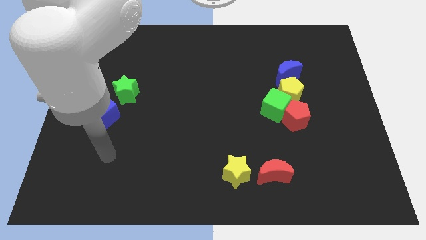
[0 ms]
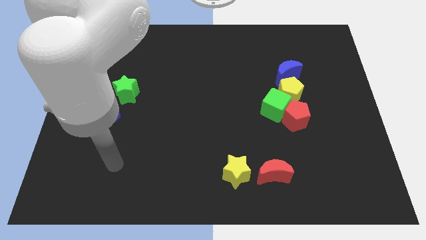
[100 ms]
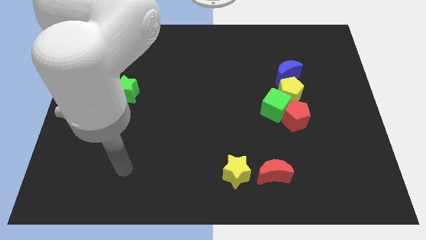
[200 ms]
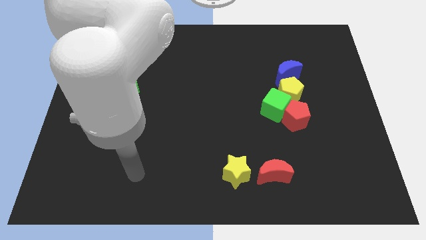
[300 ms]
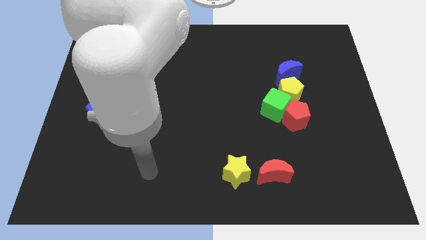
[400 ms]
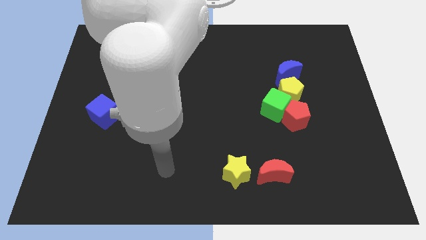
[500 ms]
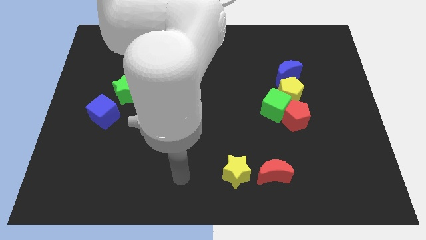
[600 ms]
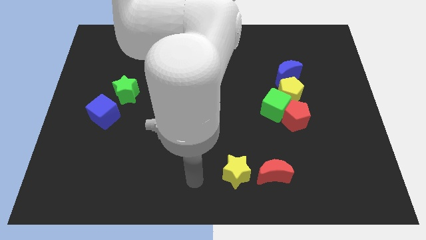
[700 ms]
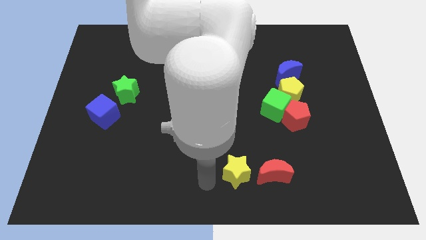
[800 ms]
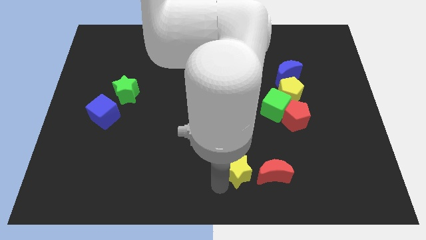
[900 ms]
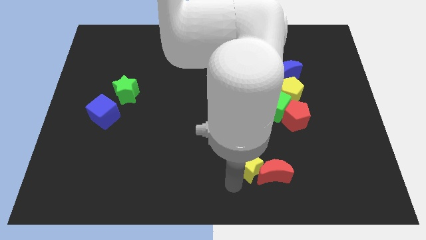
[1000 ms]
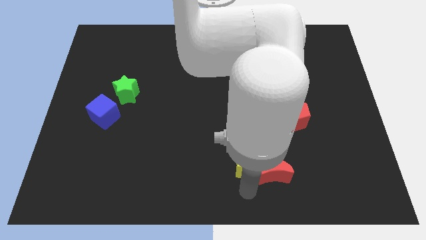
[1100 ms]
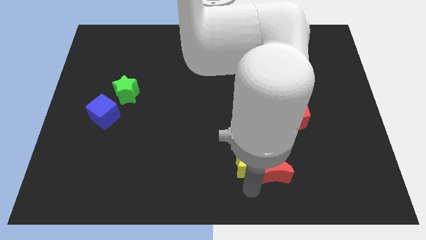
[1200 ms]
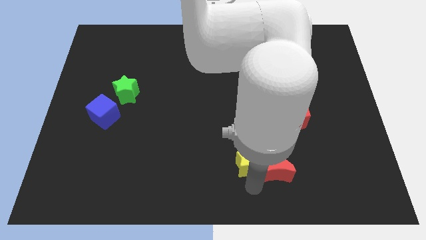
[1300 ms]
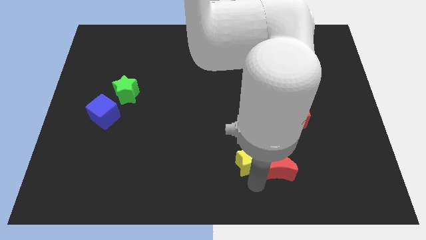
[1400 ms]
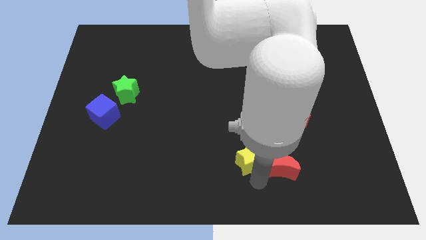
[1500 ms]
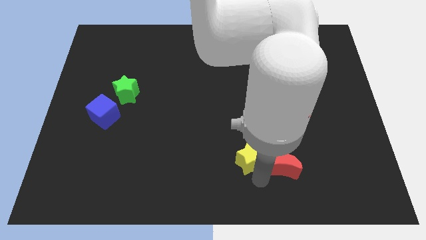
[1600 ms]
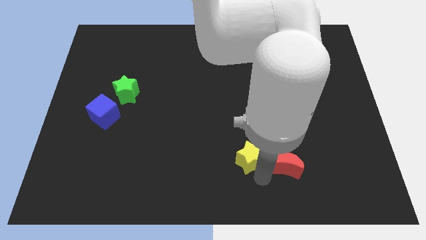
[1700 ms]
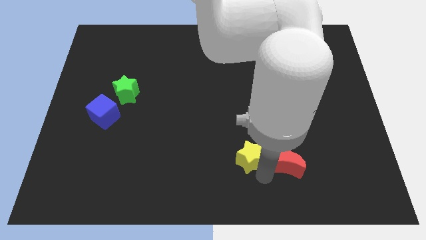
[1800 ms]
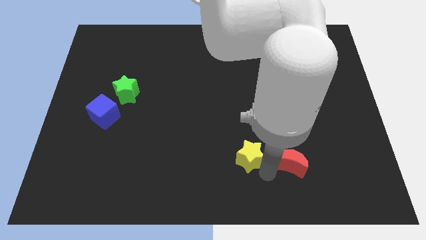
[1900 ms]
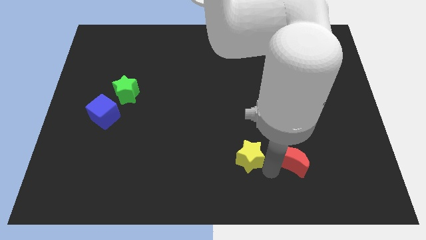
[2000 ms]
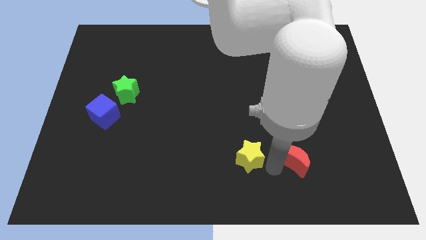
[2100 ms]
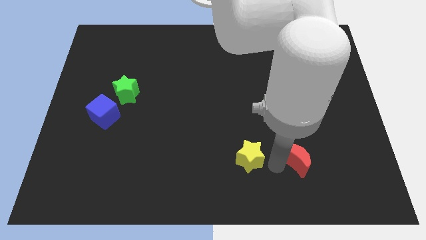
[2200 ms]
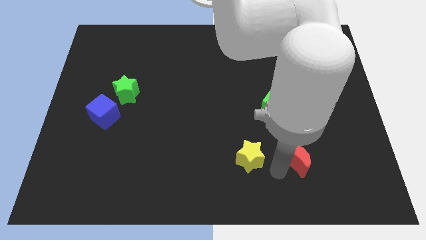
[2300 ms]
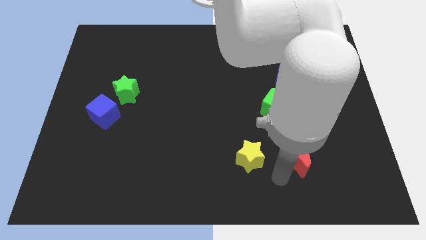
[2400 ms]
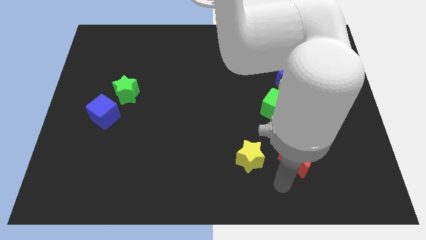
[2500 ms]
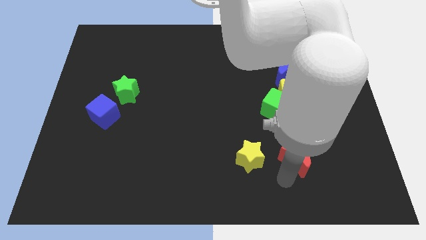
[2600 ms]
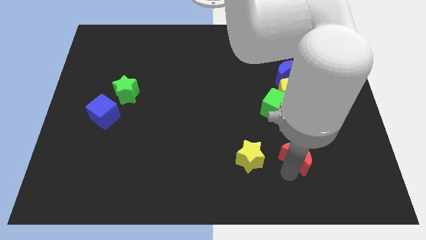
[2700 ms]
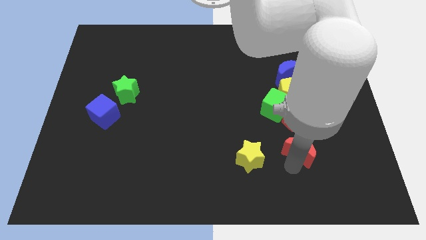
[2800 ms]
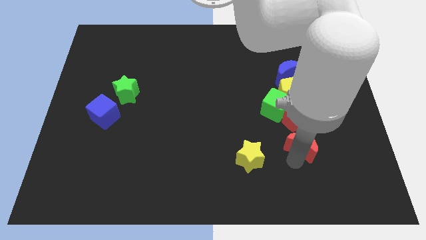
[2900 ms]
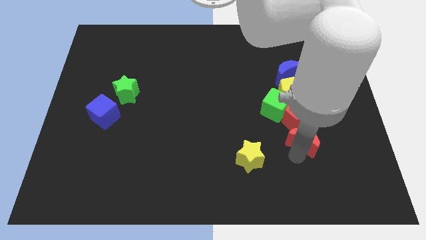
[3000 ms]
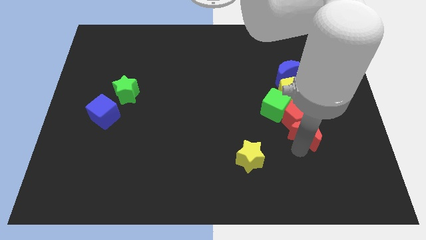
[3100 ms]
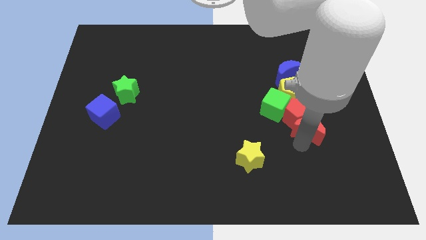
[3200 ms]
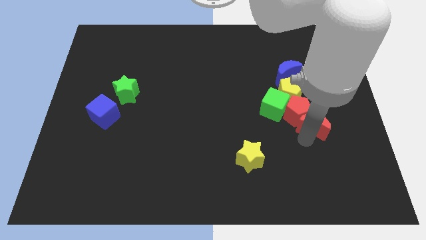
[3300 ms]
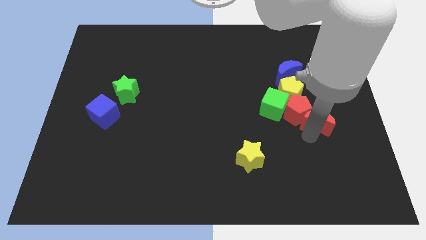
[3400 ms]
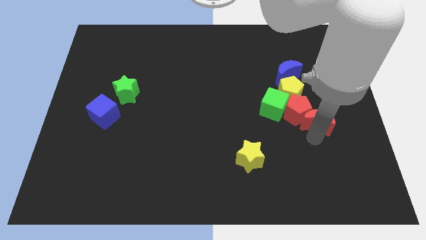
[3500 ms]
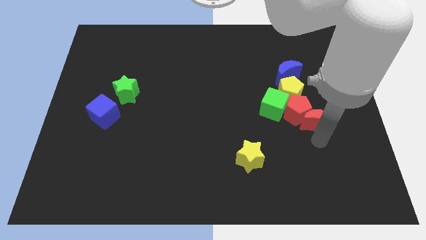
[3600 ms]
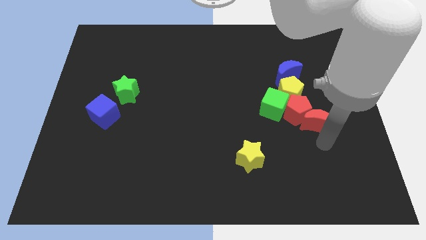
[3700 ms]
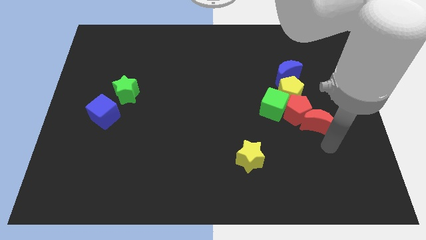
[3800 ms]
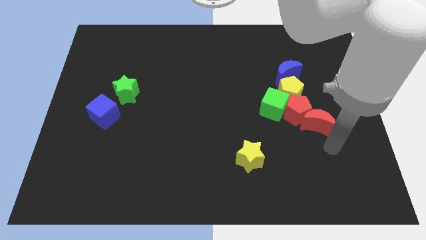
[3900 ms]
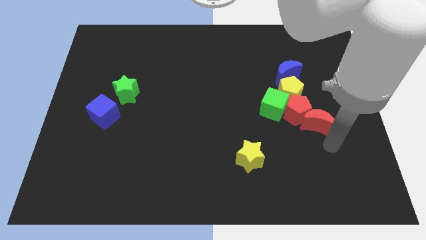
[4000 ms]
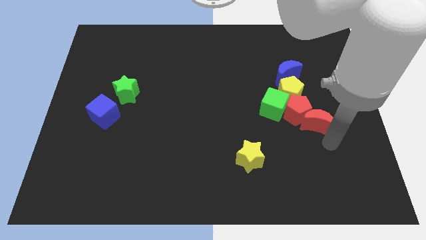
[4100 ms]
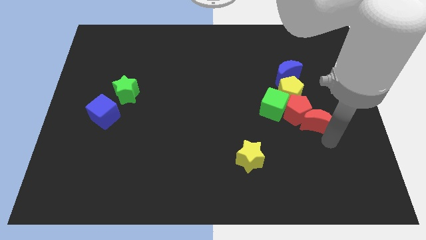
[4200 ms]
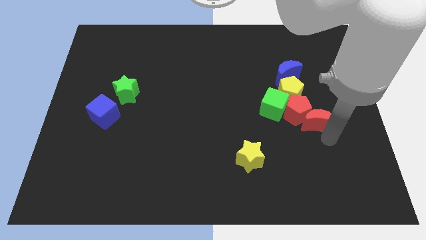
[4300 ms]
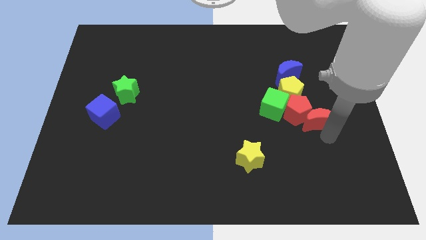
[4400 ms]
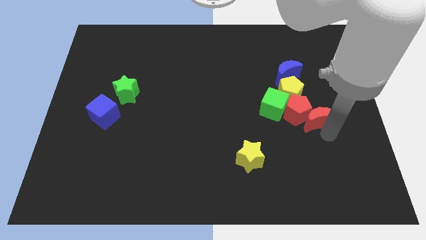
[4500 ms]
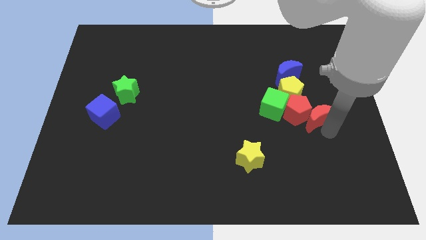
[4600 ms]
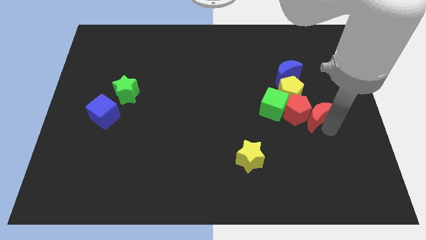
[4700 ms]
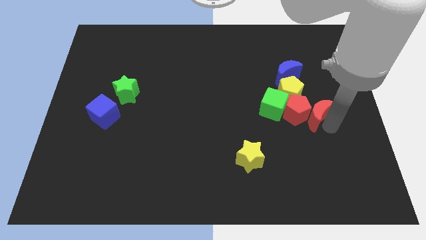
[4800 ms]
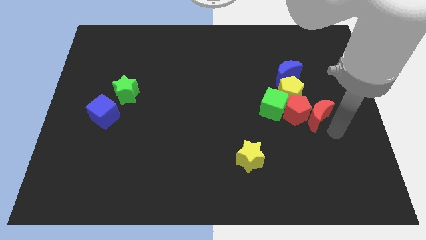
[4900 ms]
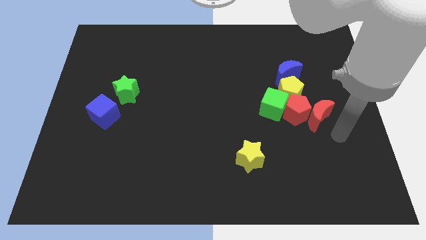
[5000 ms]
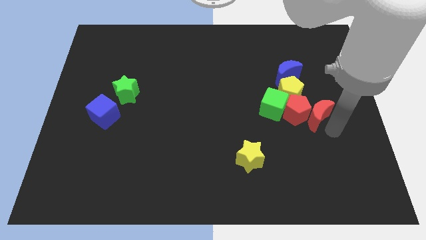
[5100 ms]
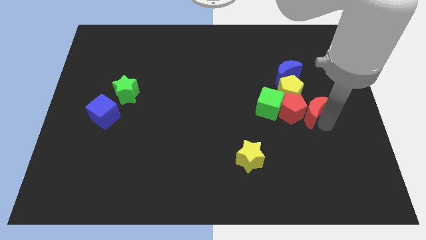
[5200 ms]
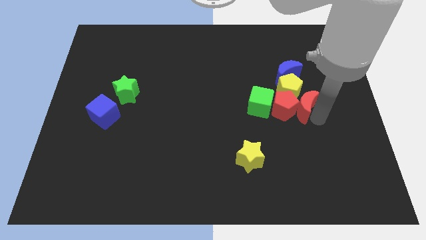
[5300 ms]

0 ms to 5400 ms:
slide the red moon close to the yellow pentagon

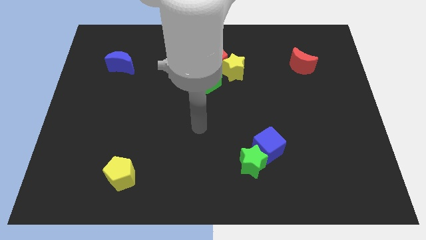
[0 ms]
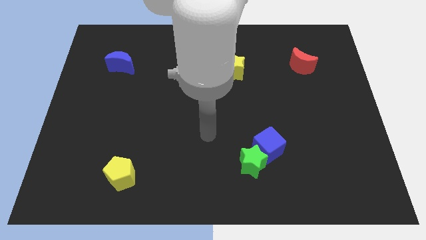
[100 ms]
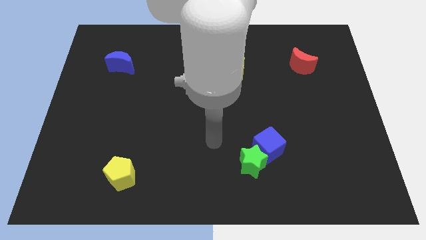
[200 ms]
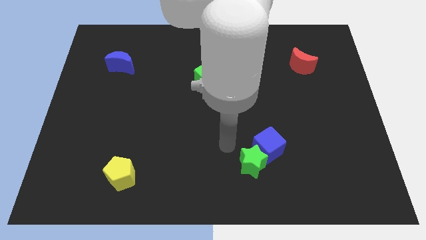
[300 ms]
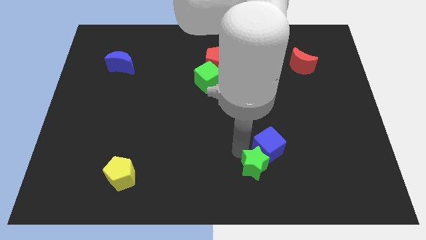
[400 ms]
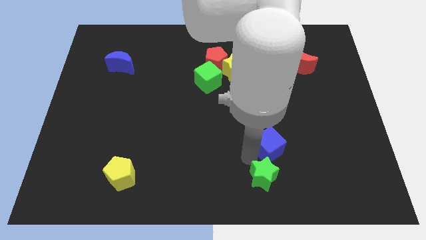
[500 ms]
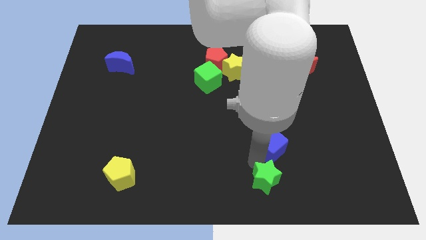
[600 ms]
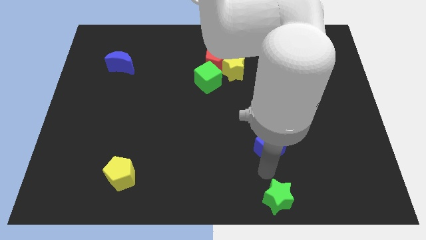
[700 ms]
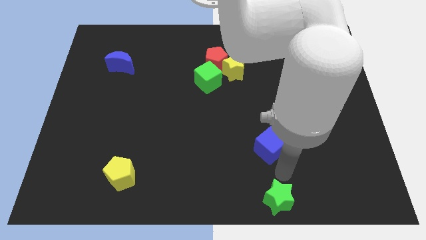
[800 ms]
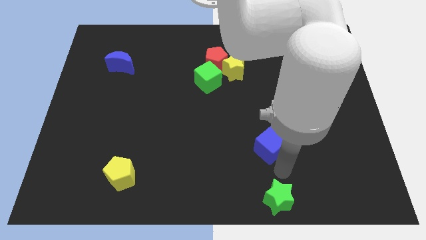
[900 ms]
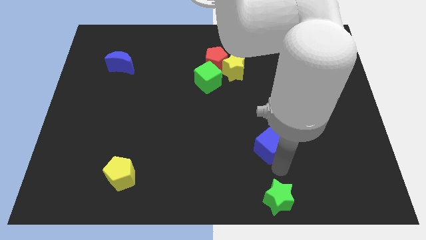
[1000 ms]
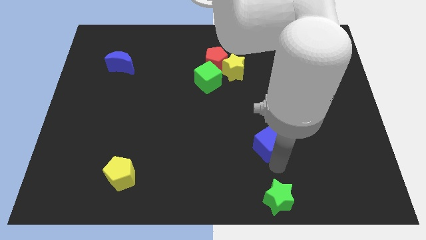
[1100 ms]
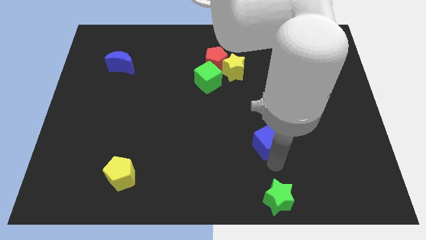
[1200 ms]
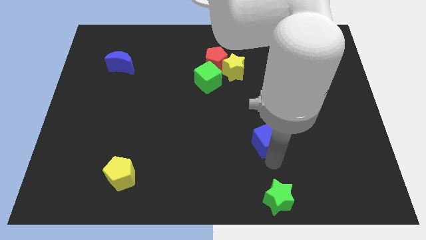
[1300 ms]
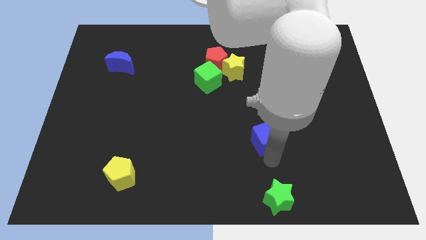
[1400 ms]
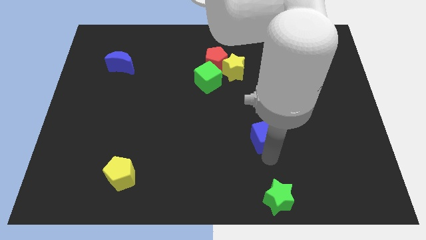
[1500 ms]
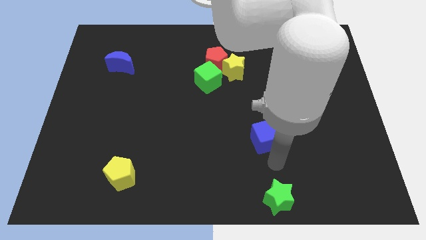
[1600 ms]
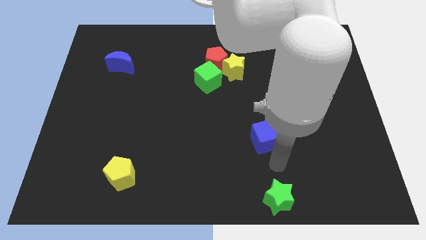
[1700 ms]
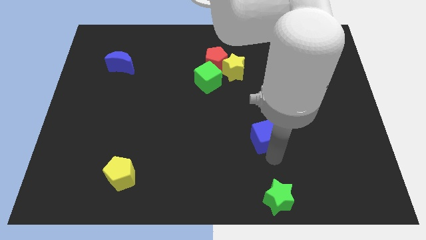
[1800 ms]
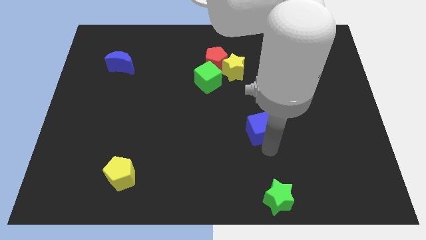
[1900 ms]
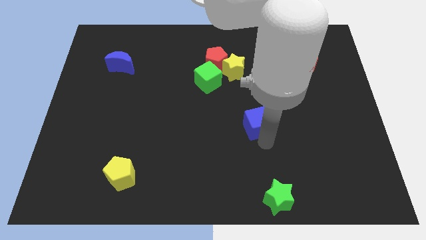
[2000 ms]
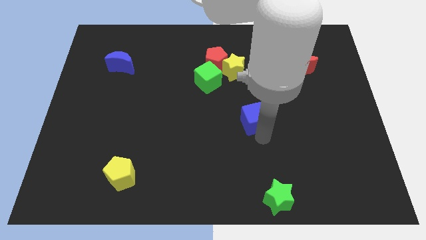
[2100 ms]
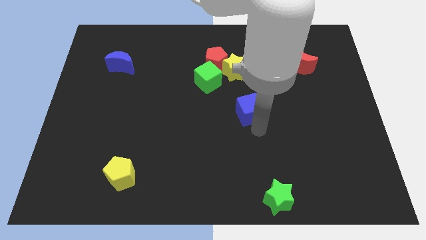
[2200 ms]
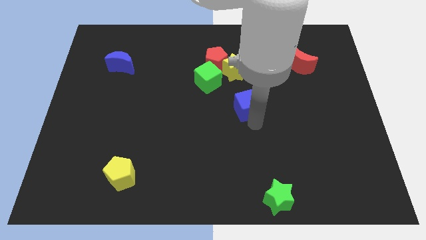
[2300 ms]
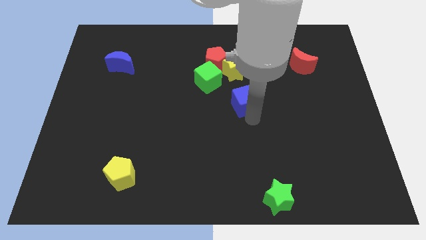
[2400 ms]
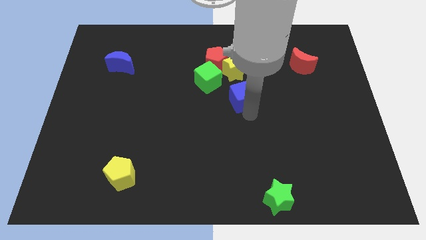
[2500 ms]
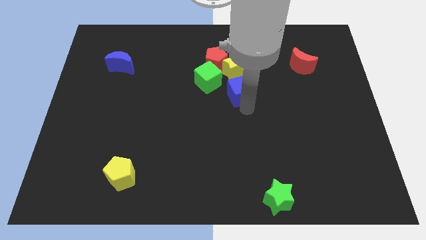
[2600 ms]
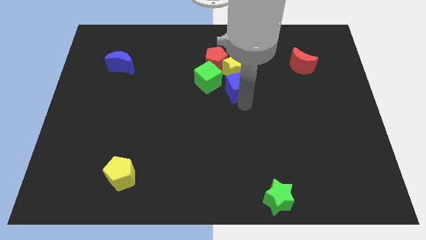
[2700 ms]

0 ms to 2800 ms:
put the blue cube towards the yellow star
